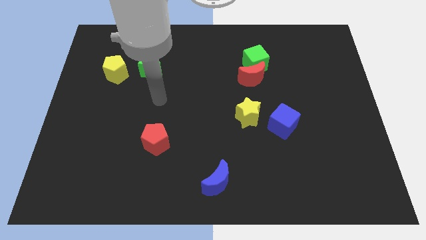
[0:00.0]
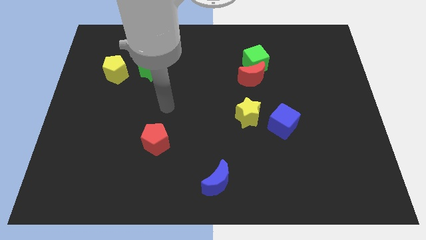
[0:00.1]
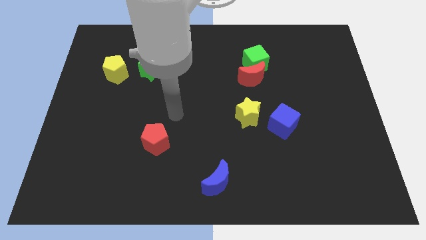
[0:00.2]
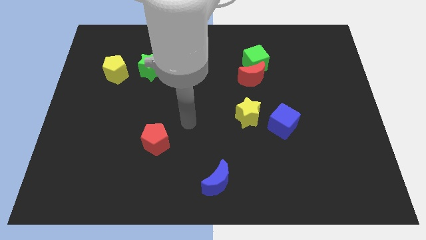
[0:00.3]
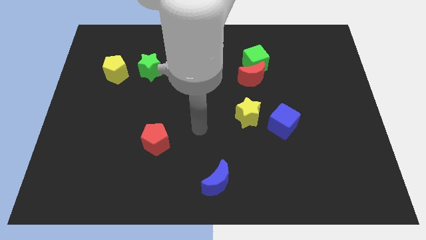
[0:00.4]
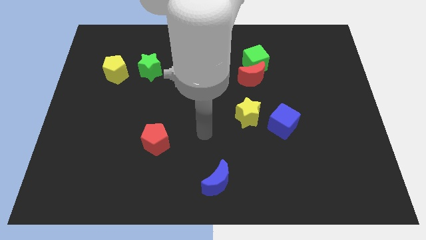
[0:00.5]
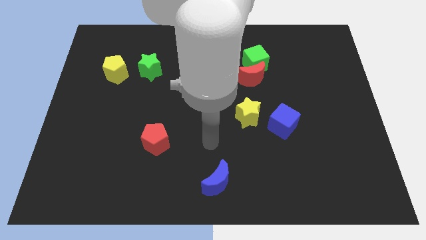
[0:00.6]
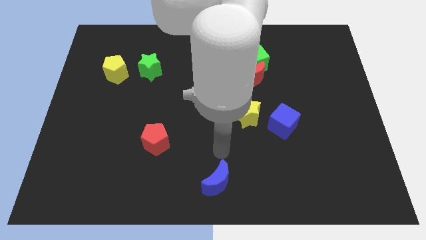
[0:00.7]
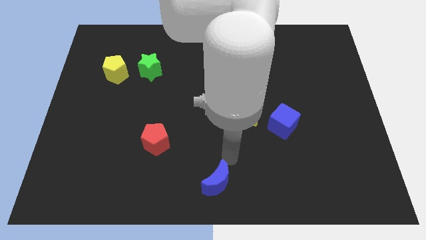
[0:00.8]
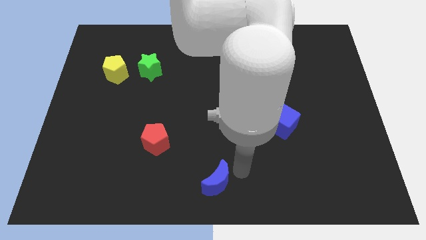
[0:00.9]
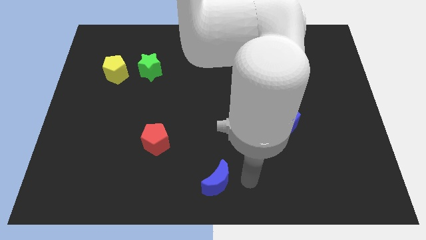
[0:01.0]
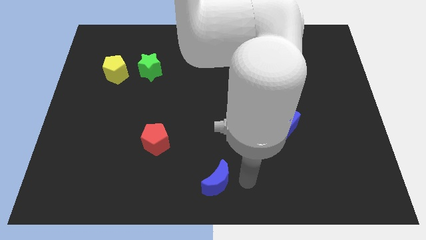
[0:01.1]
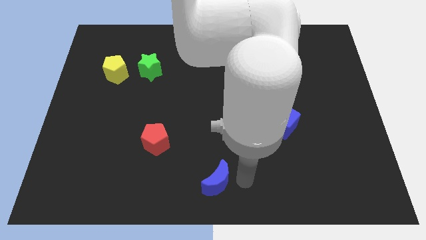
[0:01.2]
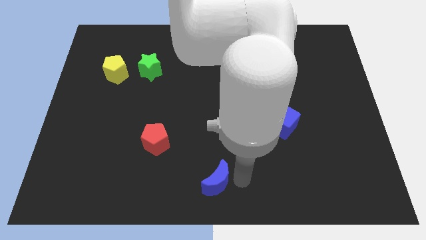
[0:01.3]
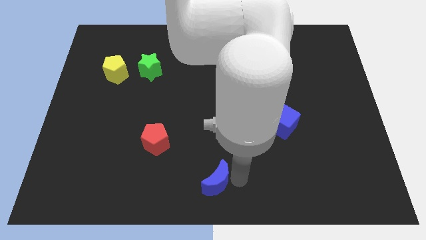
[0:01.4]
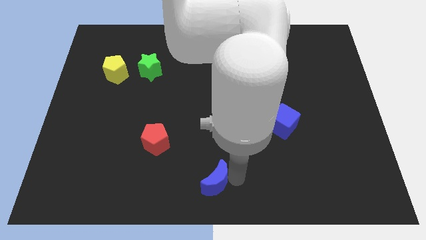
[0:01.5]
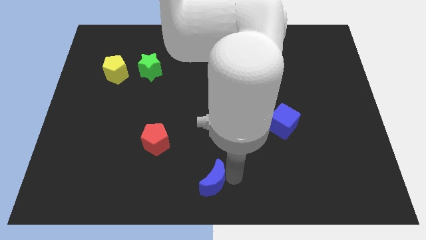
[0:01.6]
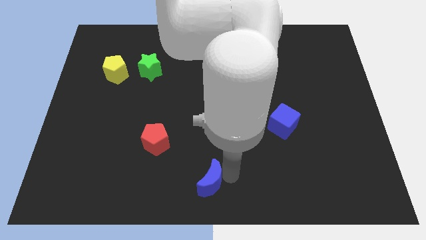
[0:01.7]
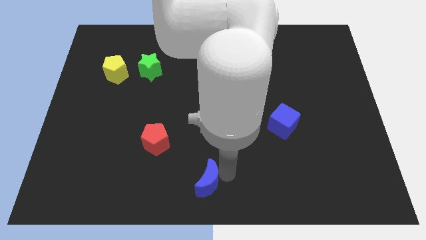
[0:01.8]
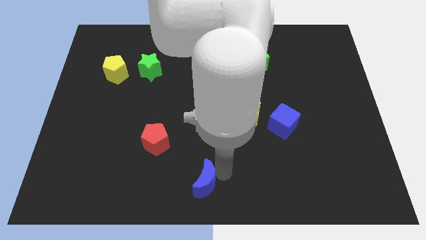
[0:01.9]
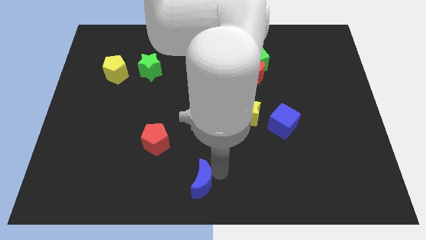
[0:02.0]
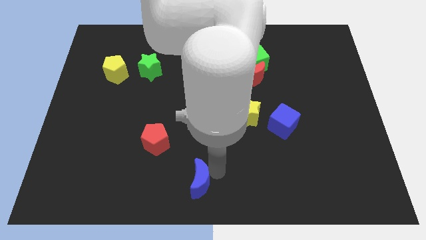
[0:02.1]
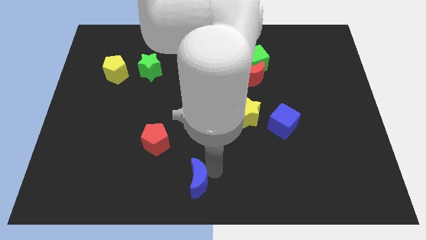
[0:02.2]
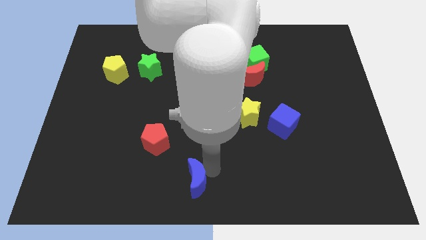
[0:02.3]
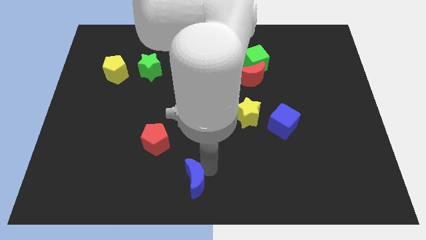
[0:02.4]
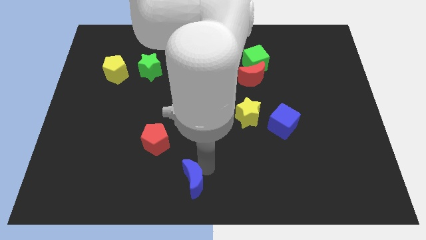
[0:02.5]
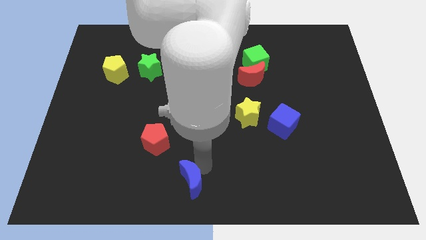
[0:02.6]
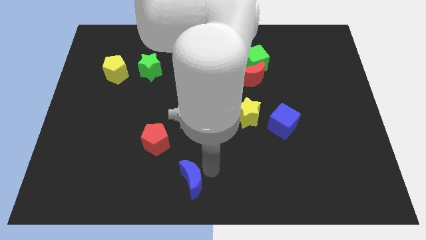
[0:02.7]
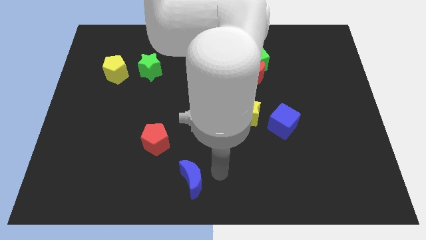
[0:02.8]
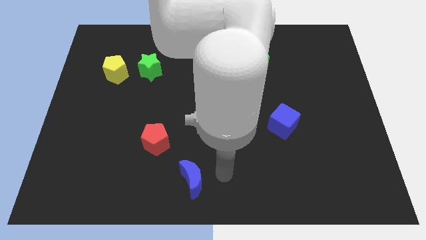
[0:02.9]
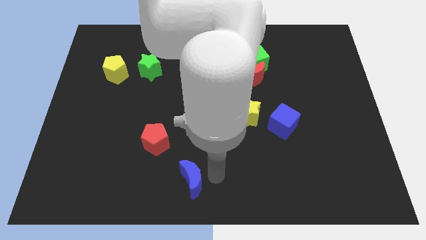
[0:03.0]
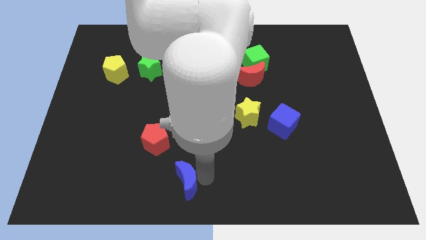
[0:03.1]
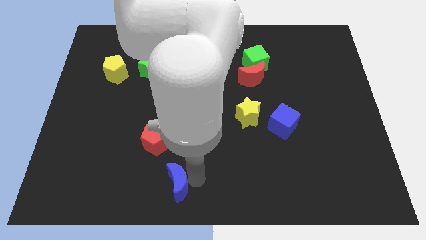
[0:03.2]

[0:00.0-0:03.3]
push the blue moon left a little

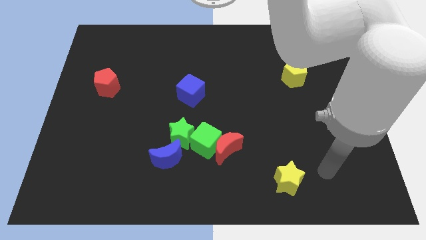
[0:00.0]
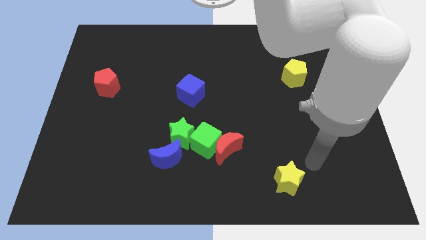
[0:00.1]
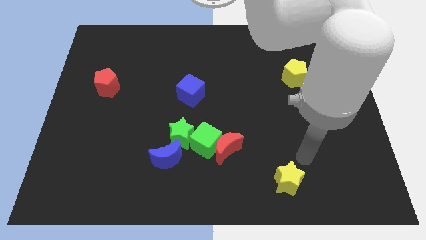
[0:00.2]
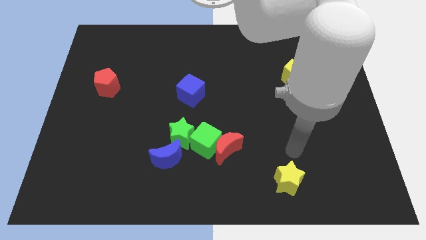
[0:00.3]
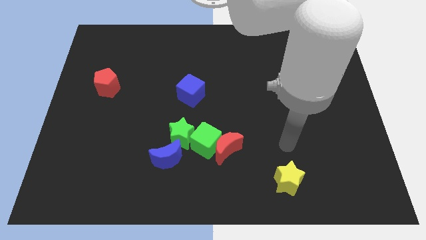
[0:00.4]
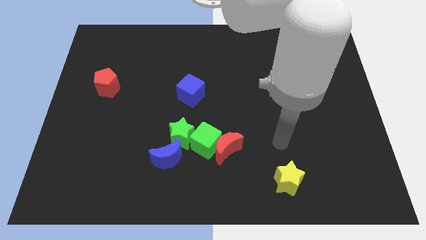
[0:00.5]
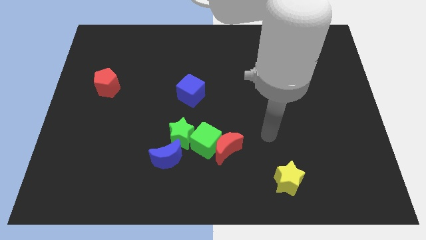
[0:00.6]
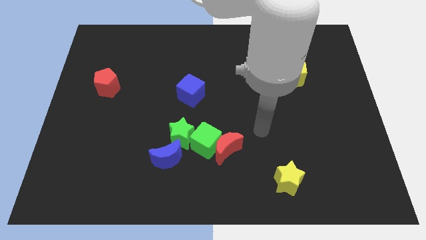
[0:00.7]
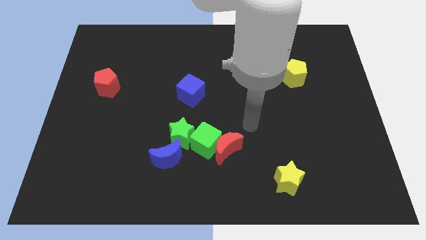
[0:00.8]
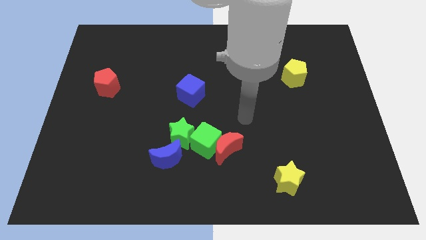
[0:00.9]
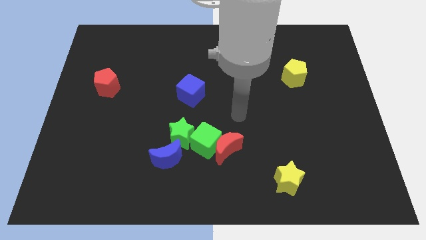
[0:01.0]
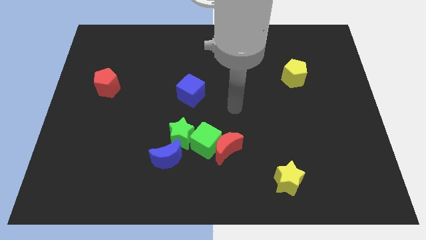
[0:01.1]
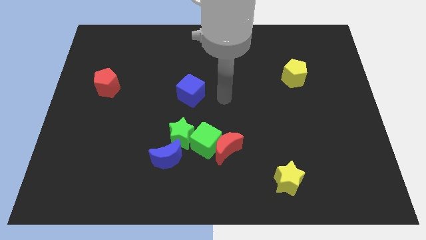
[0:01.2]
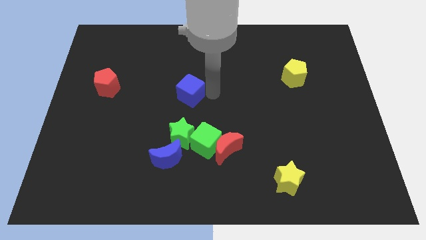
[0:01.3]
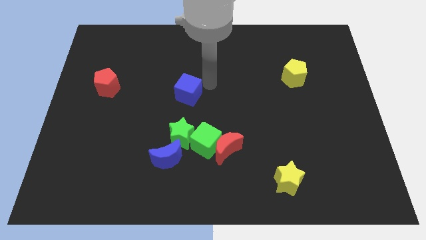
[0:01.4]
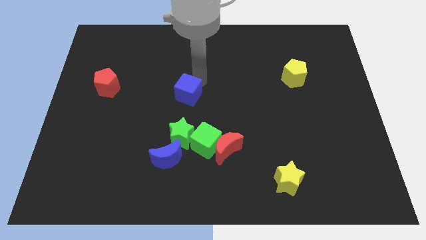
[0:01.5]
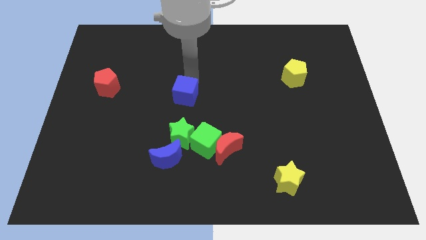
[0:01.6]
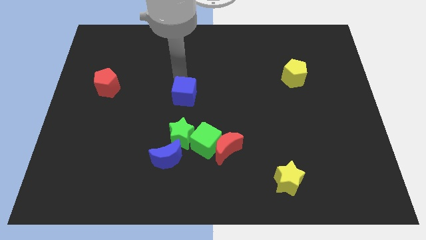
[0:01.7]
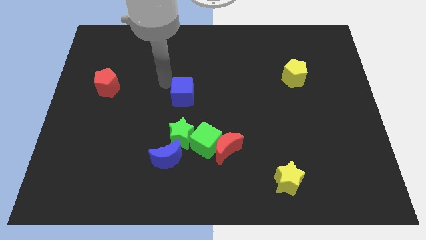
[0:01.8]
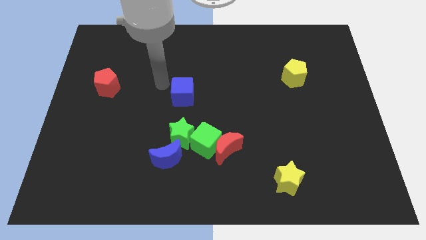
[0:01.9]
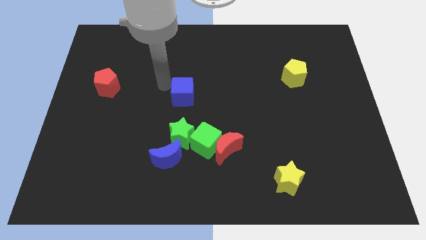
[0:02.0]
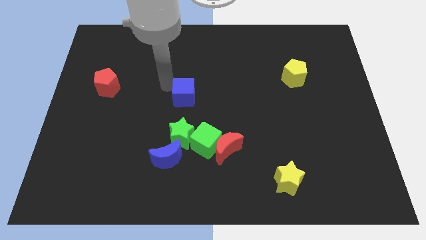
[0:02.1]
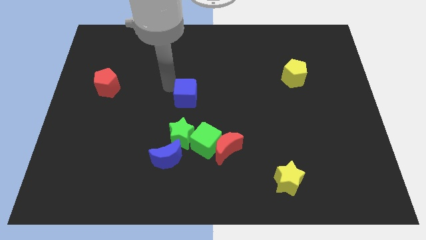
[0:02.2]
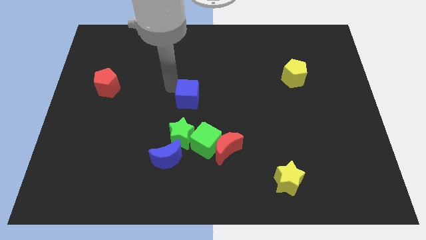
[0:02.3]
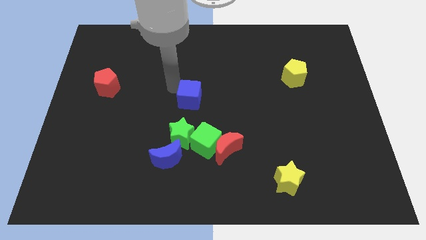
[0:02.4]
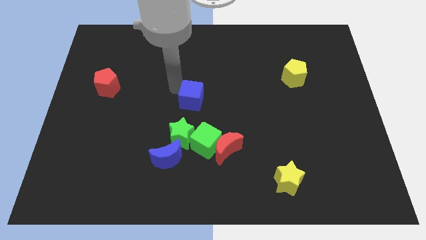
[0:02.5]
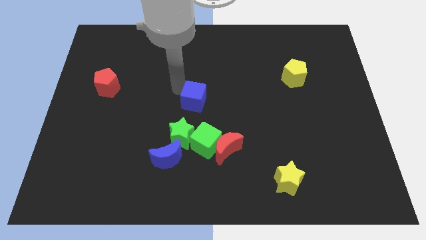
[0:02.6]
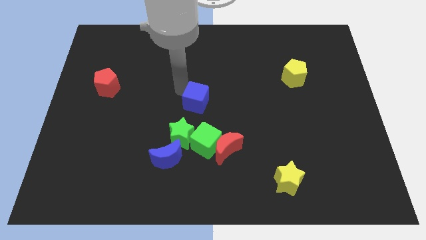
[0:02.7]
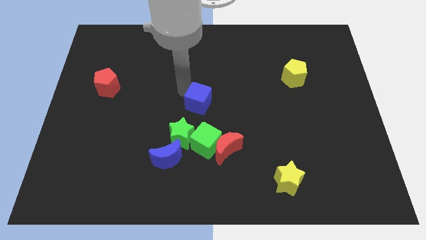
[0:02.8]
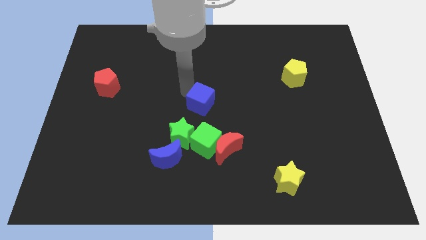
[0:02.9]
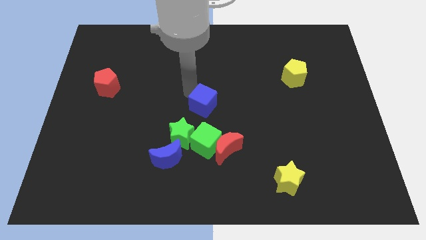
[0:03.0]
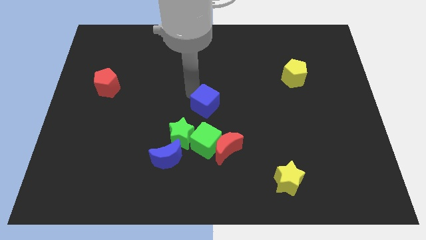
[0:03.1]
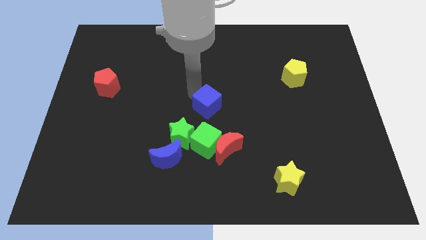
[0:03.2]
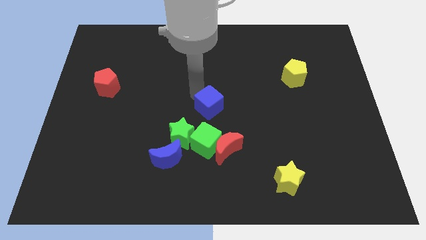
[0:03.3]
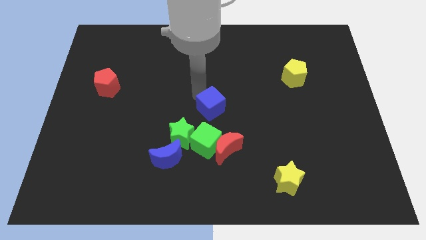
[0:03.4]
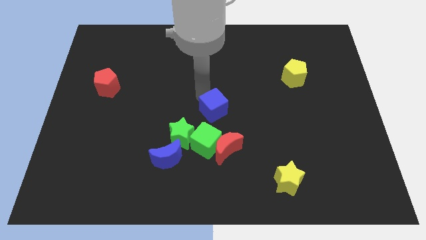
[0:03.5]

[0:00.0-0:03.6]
slide the blue cube down and then right a little bit

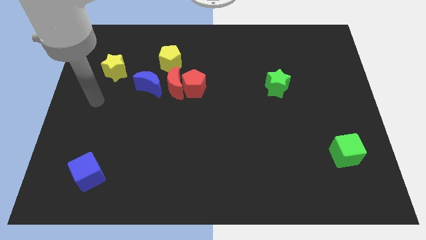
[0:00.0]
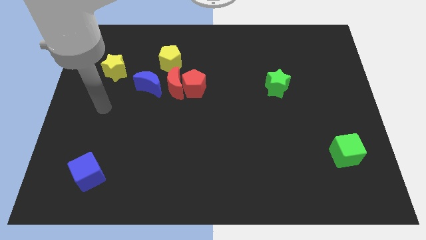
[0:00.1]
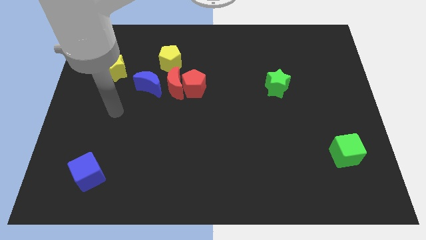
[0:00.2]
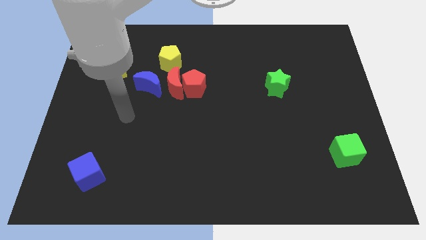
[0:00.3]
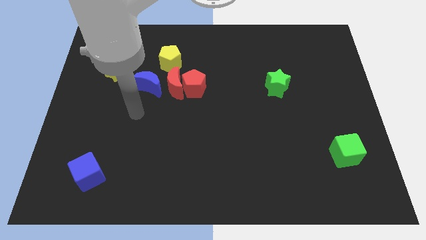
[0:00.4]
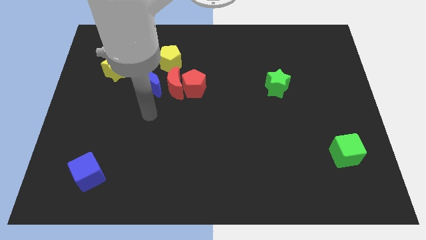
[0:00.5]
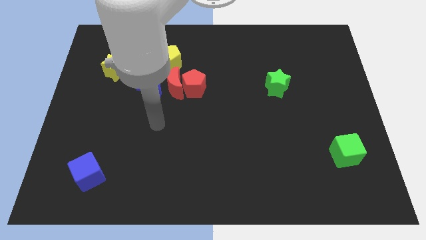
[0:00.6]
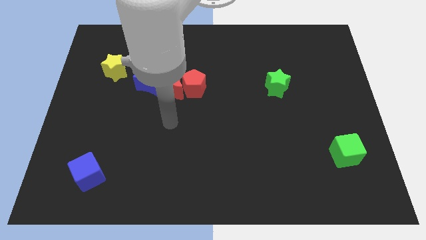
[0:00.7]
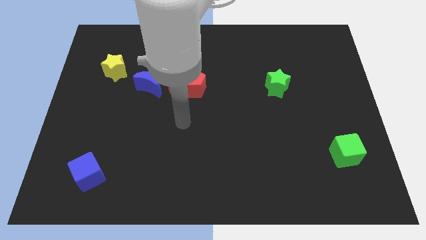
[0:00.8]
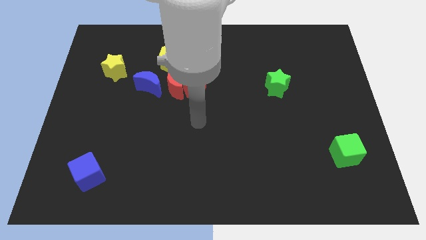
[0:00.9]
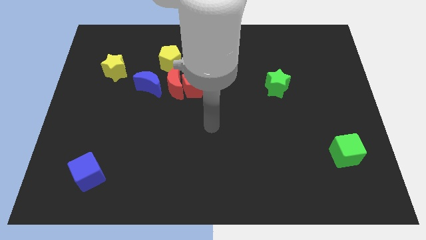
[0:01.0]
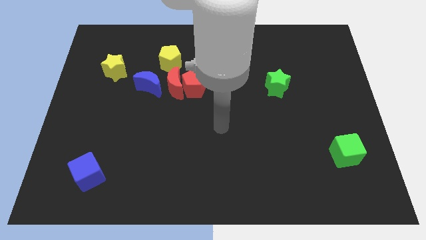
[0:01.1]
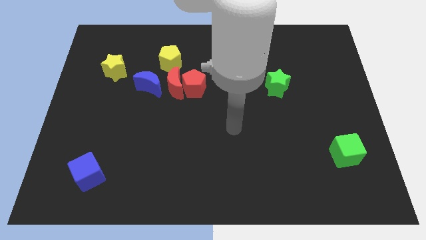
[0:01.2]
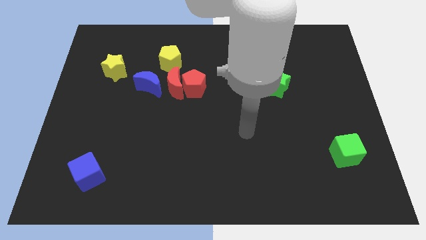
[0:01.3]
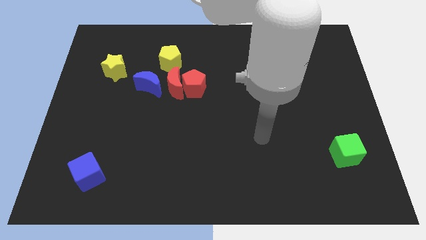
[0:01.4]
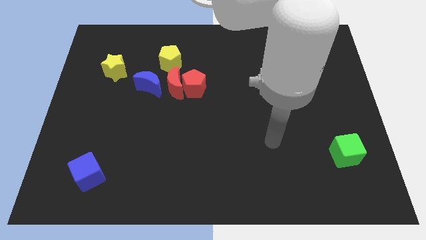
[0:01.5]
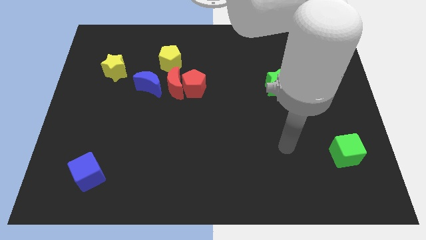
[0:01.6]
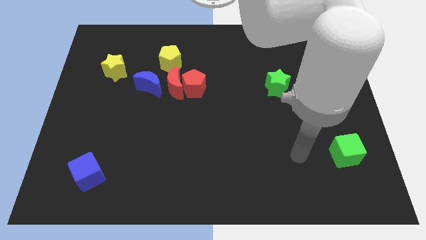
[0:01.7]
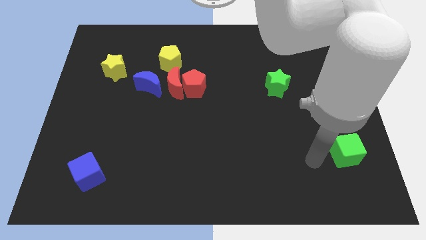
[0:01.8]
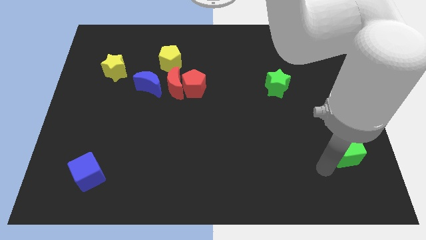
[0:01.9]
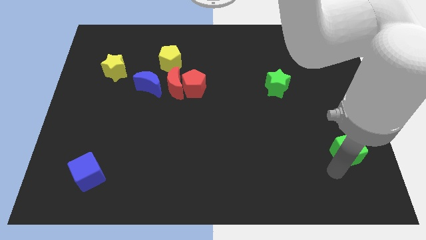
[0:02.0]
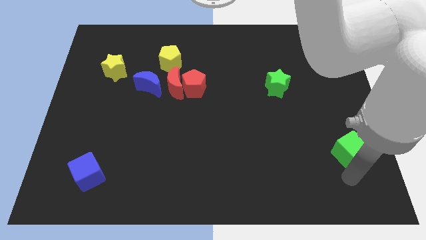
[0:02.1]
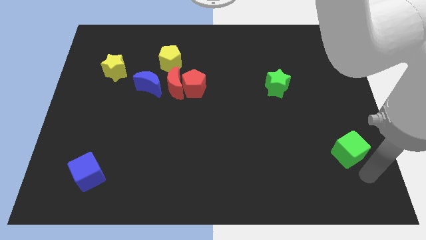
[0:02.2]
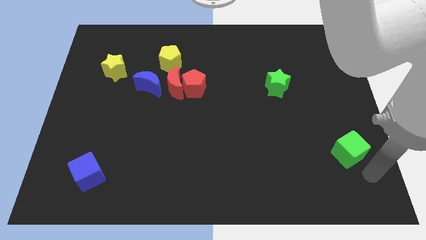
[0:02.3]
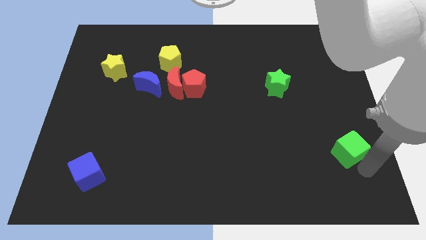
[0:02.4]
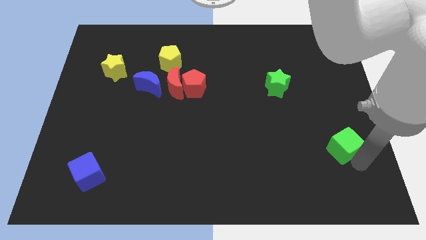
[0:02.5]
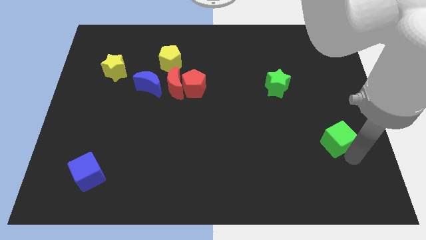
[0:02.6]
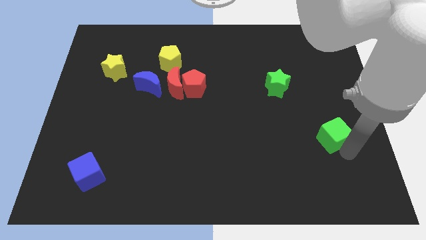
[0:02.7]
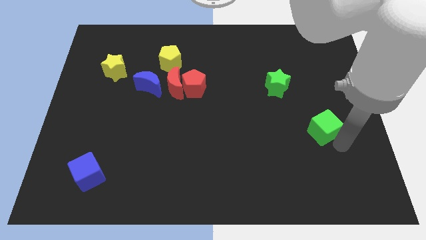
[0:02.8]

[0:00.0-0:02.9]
slide the green cube up and then left a little bit
